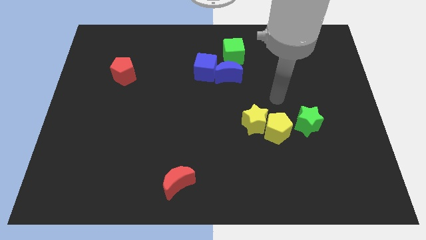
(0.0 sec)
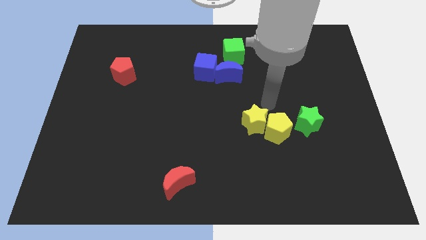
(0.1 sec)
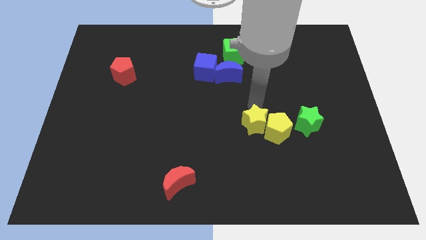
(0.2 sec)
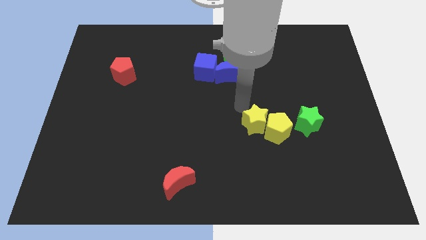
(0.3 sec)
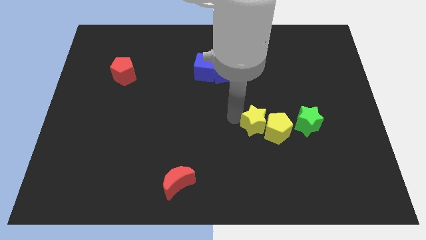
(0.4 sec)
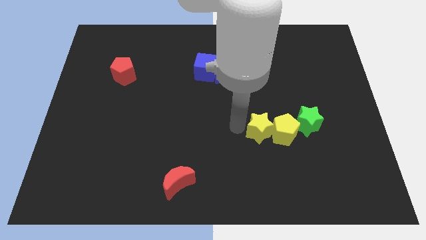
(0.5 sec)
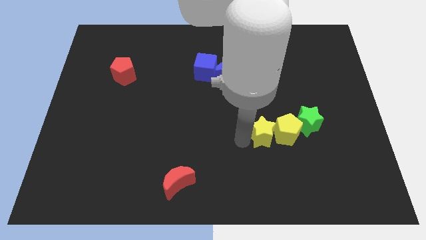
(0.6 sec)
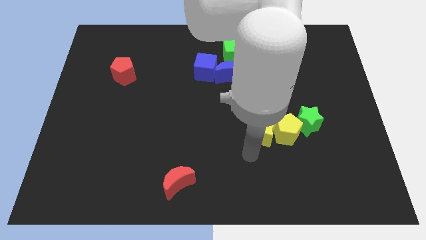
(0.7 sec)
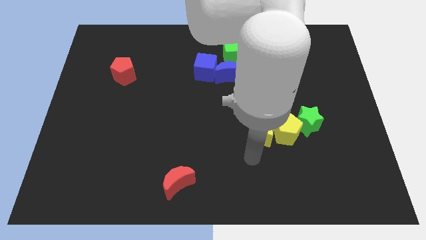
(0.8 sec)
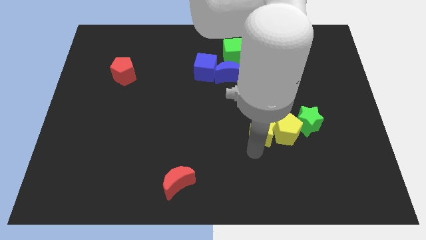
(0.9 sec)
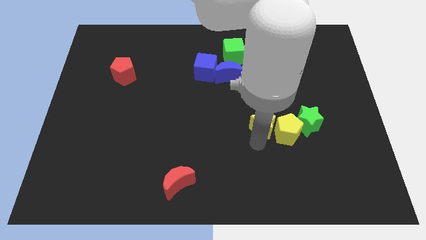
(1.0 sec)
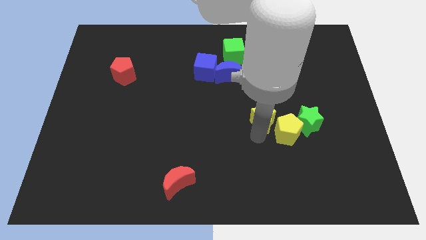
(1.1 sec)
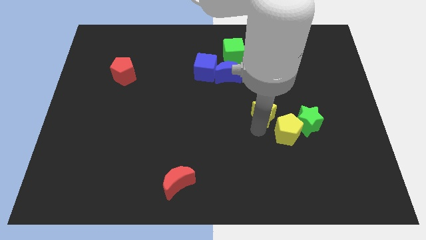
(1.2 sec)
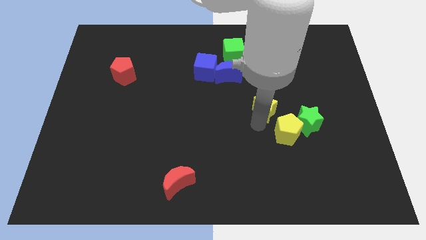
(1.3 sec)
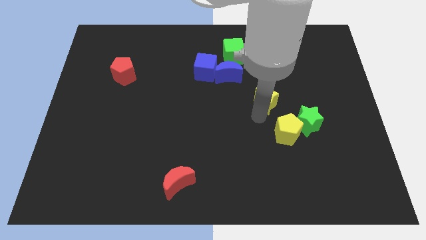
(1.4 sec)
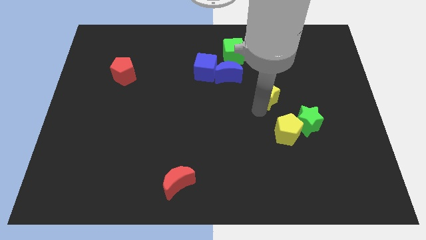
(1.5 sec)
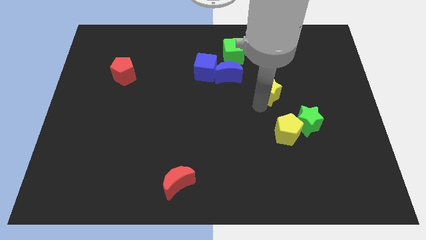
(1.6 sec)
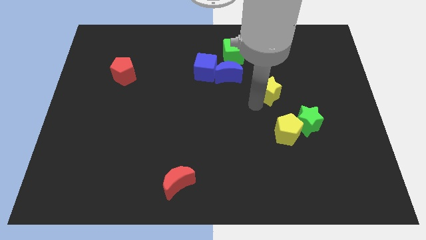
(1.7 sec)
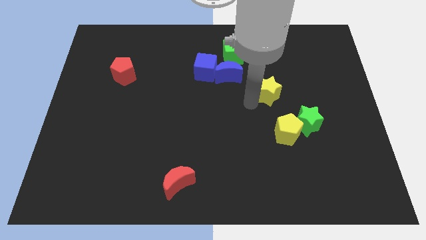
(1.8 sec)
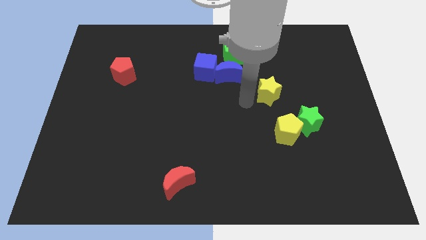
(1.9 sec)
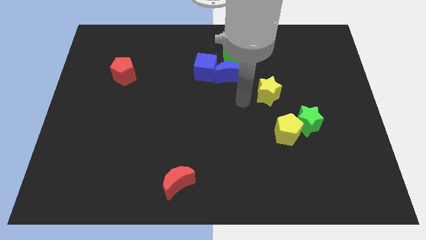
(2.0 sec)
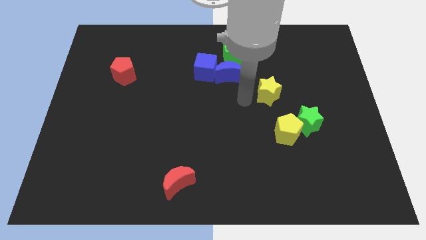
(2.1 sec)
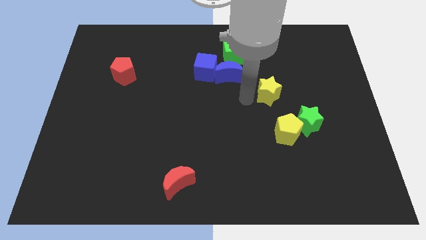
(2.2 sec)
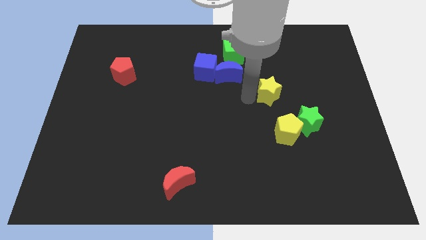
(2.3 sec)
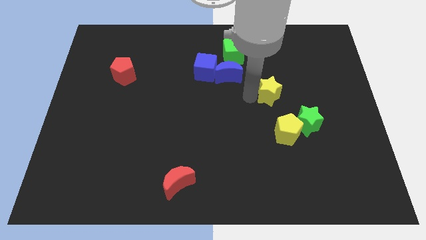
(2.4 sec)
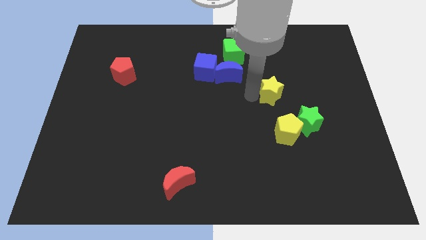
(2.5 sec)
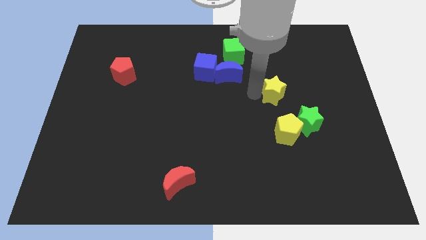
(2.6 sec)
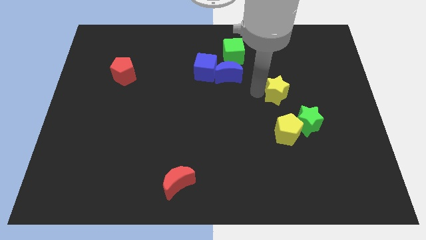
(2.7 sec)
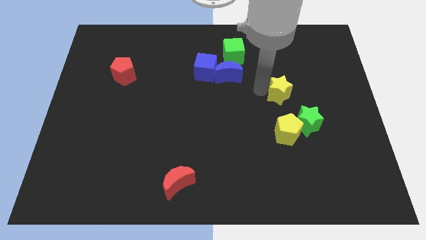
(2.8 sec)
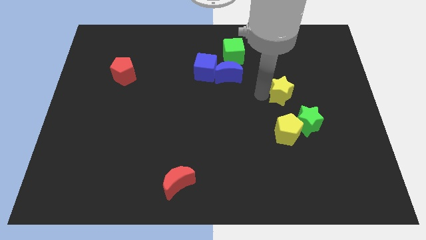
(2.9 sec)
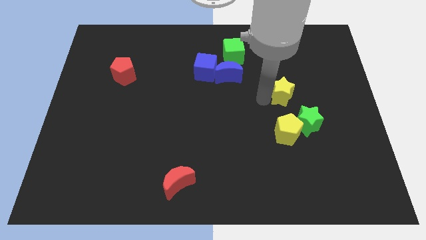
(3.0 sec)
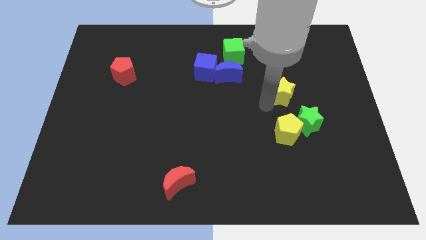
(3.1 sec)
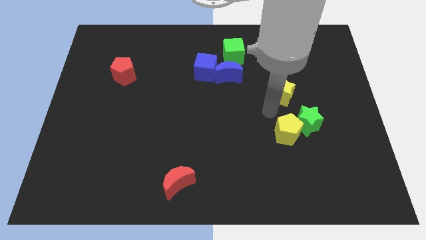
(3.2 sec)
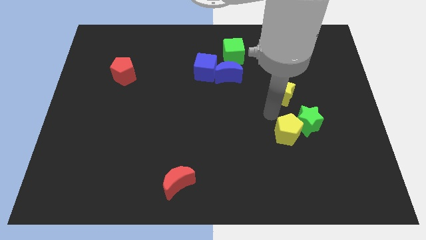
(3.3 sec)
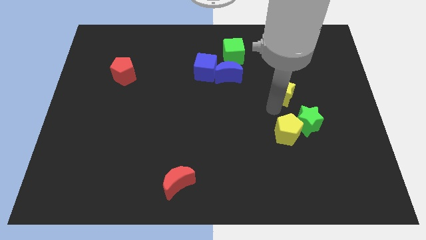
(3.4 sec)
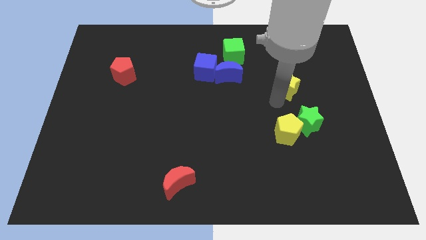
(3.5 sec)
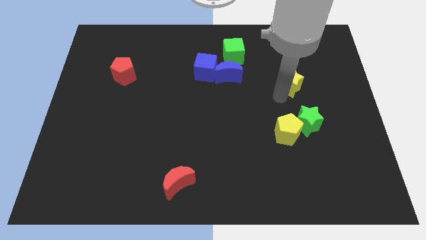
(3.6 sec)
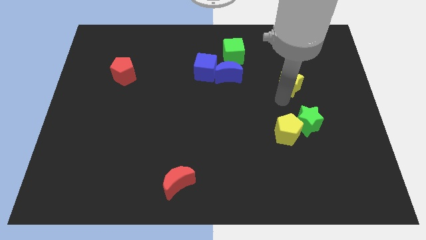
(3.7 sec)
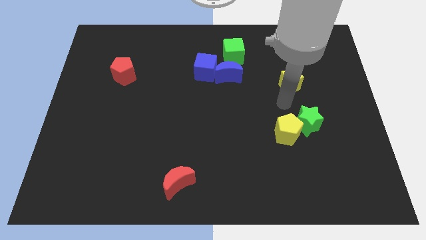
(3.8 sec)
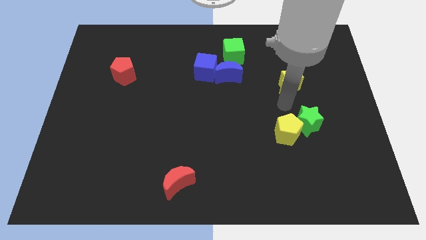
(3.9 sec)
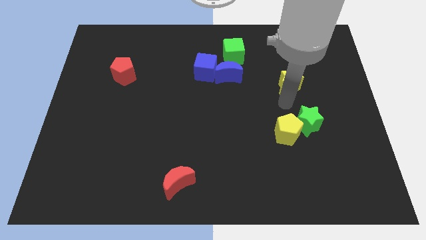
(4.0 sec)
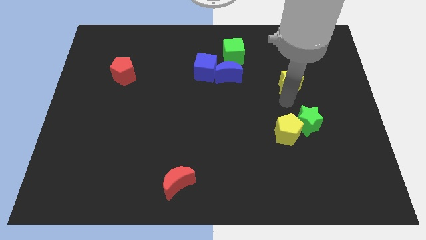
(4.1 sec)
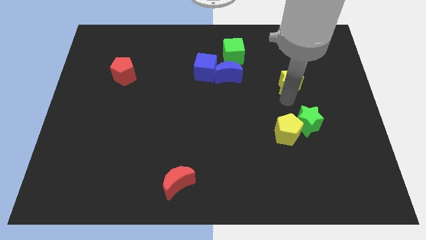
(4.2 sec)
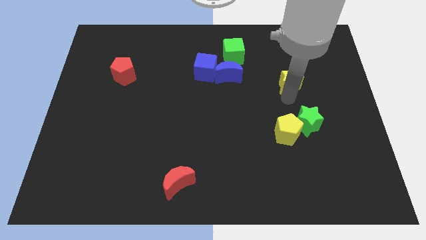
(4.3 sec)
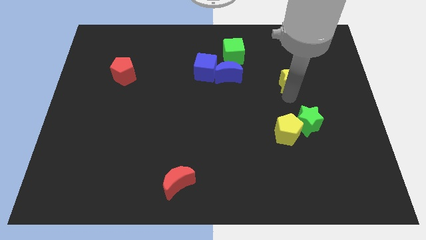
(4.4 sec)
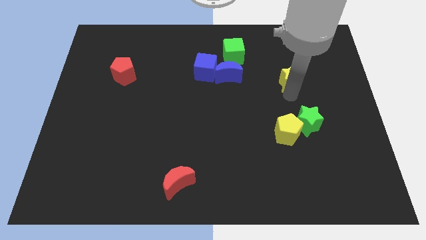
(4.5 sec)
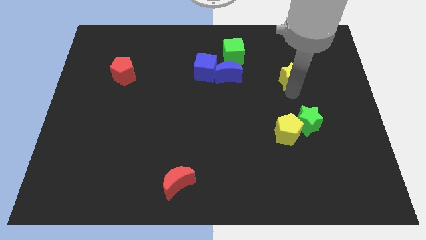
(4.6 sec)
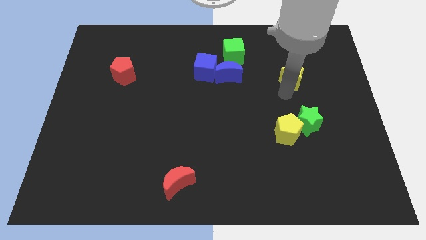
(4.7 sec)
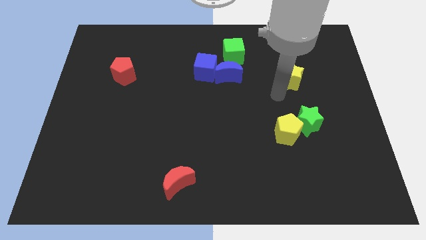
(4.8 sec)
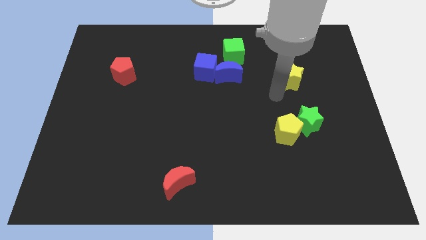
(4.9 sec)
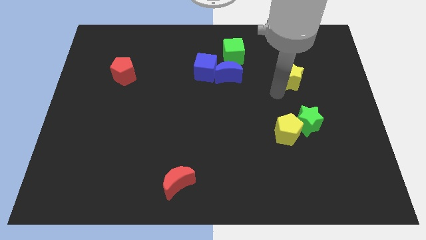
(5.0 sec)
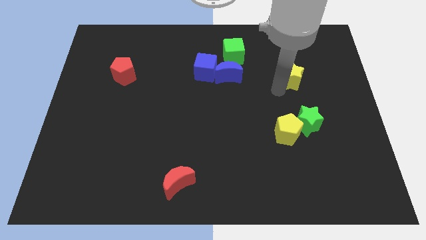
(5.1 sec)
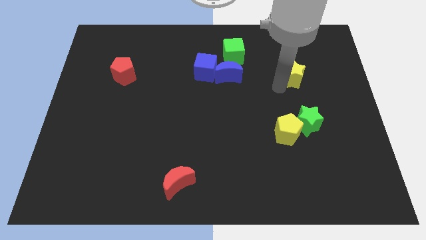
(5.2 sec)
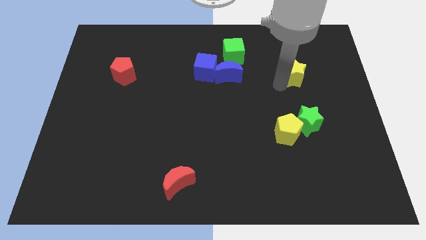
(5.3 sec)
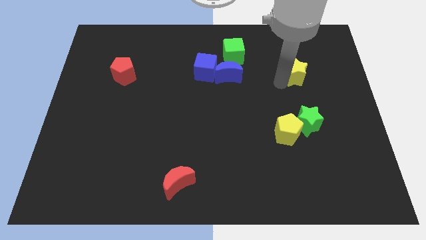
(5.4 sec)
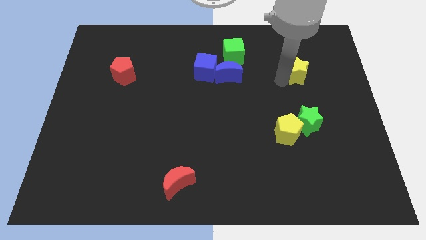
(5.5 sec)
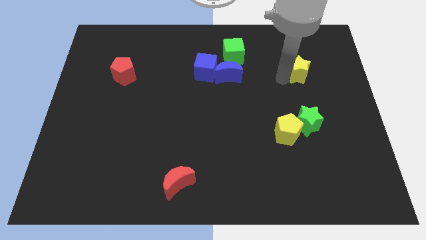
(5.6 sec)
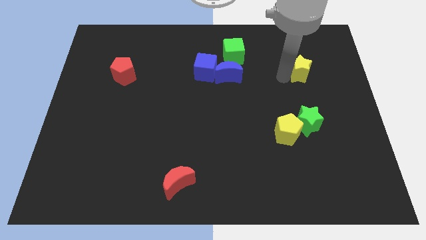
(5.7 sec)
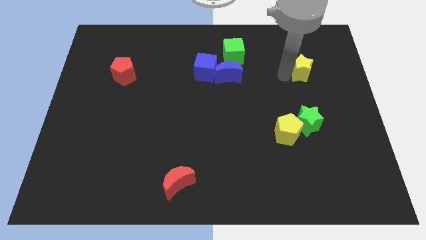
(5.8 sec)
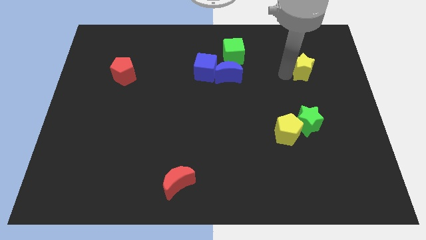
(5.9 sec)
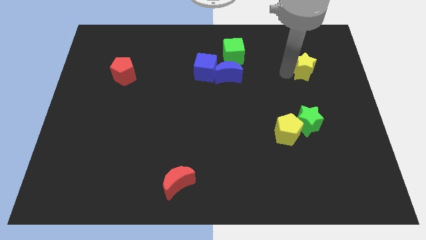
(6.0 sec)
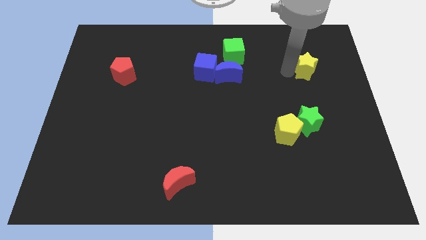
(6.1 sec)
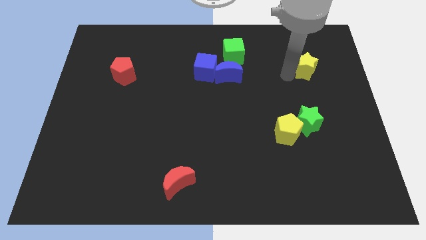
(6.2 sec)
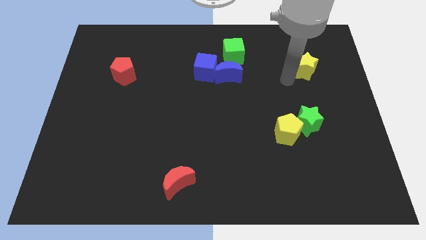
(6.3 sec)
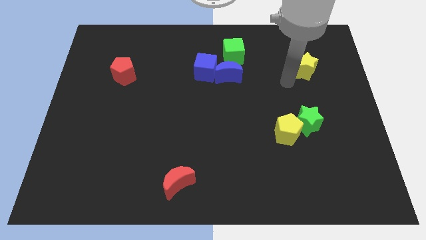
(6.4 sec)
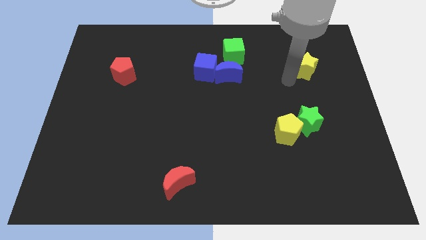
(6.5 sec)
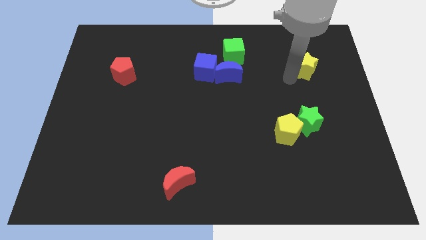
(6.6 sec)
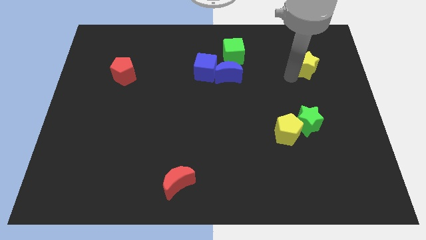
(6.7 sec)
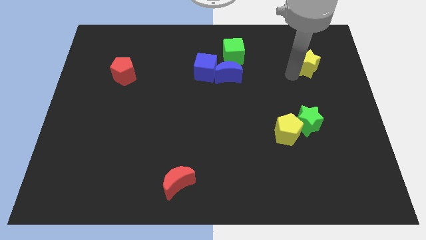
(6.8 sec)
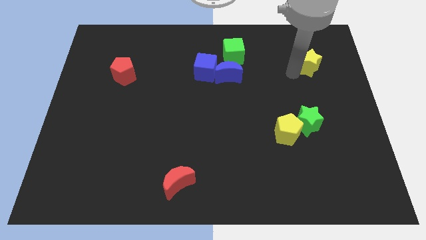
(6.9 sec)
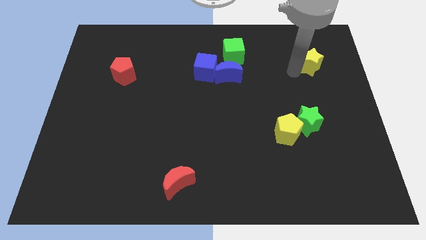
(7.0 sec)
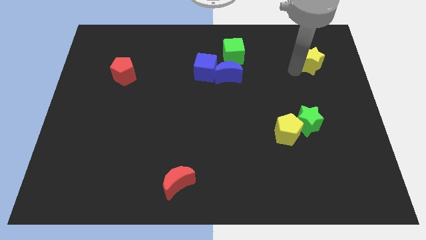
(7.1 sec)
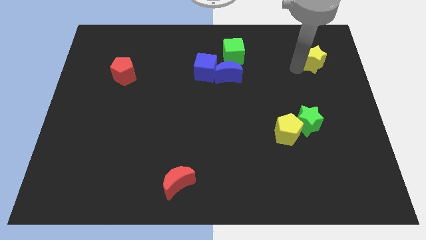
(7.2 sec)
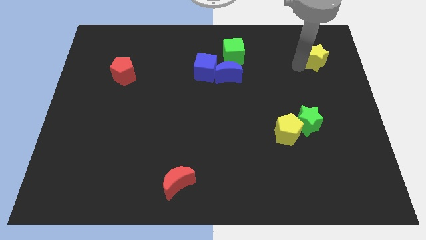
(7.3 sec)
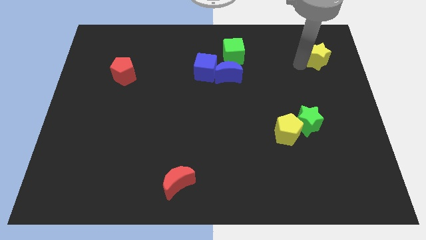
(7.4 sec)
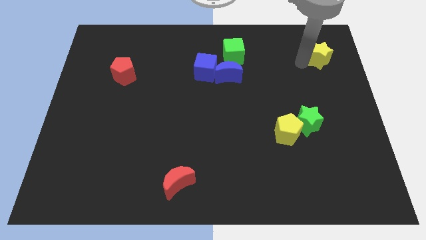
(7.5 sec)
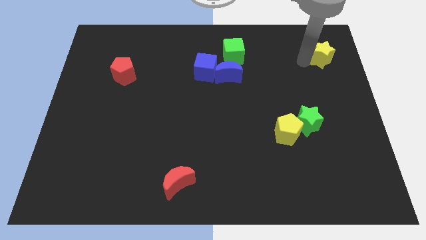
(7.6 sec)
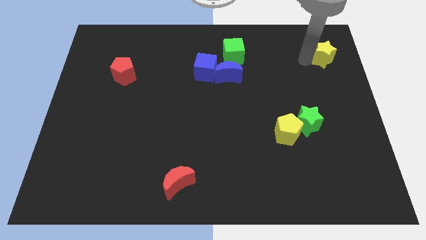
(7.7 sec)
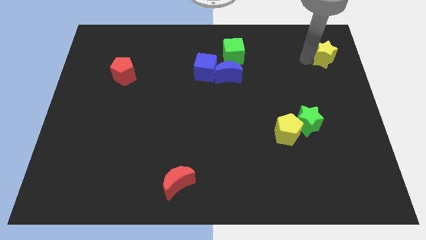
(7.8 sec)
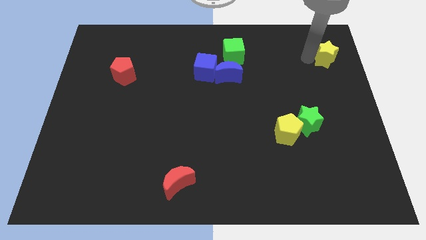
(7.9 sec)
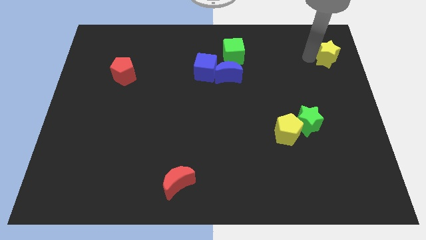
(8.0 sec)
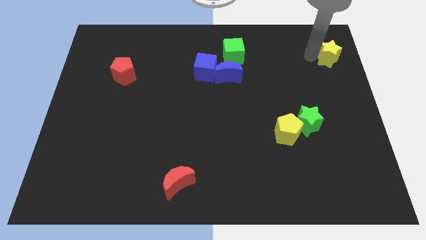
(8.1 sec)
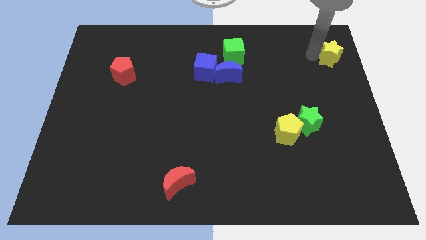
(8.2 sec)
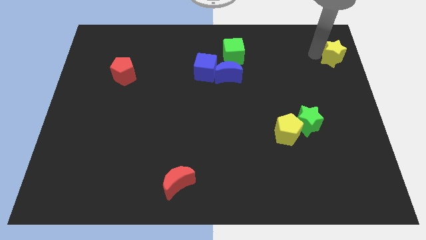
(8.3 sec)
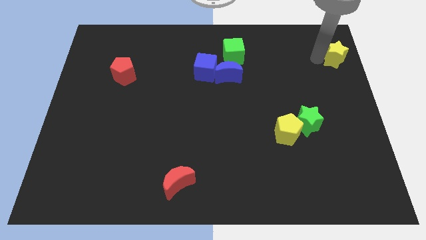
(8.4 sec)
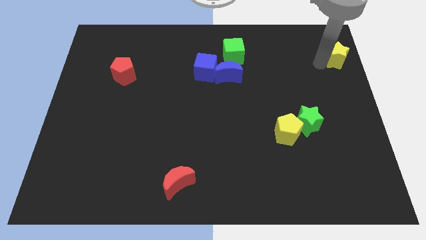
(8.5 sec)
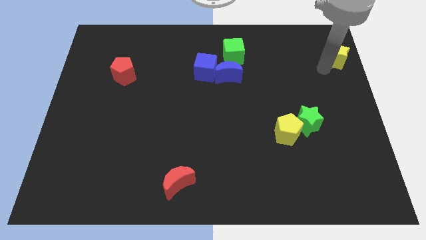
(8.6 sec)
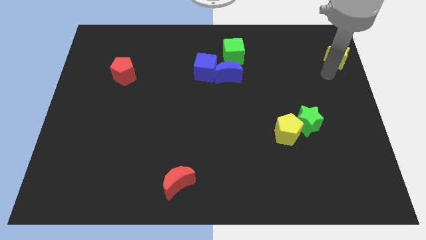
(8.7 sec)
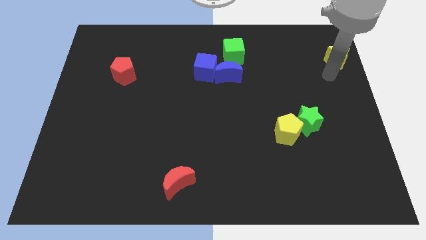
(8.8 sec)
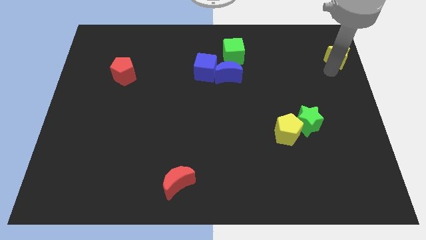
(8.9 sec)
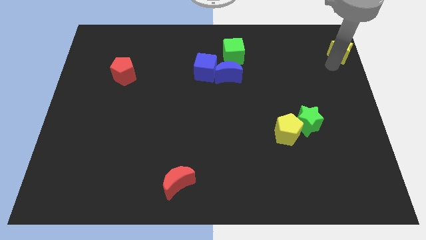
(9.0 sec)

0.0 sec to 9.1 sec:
move the yellow star to the top right
